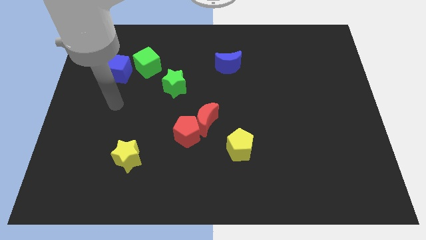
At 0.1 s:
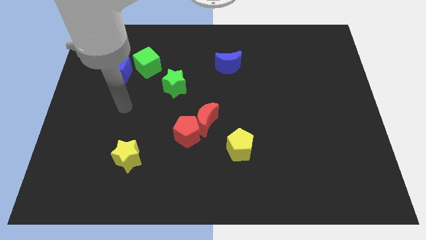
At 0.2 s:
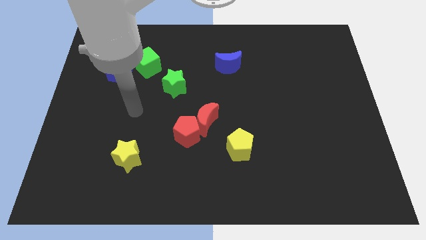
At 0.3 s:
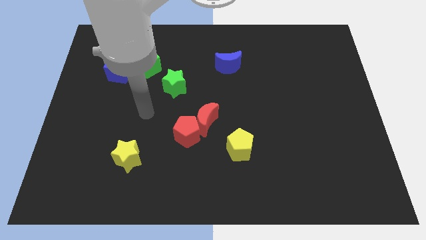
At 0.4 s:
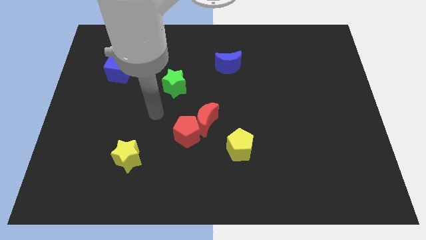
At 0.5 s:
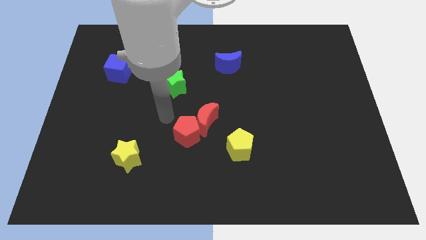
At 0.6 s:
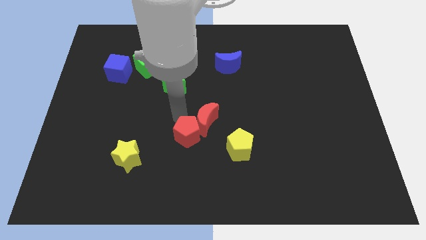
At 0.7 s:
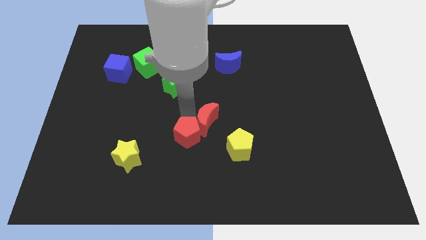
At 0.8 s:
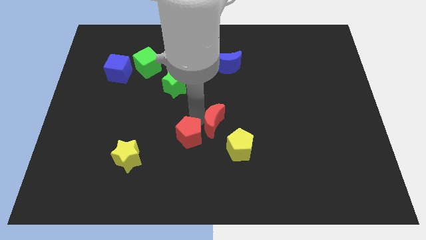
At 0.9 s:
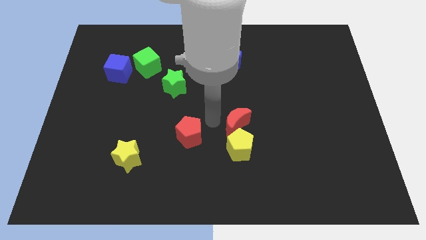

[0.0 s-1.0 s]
separate the red pentagon from the red moon

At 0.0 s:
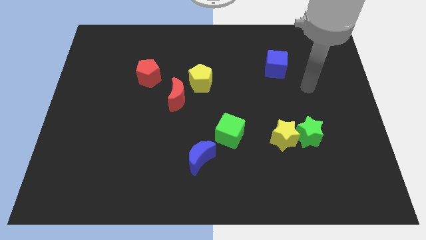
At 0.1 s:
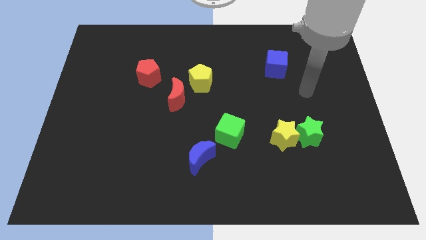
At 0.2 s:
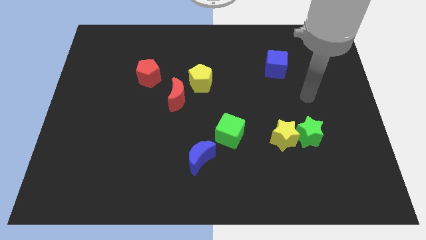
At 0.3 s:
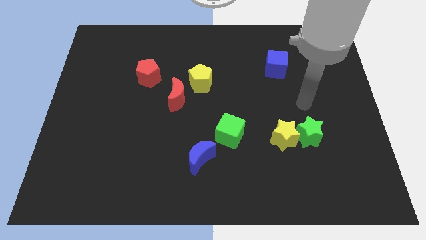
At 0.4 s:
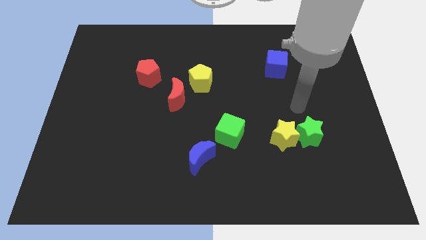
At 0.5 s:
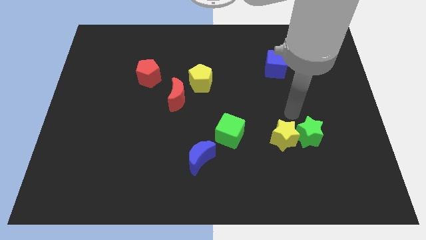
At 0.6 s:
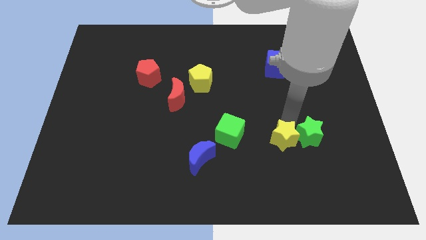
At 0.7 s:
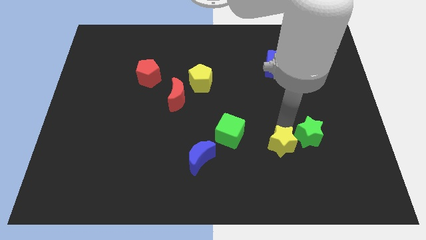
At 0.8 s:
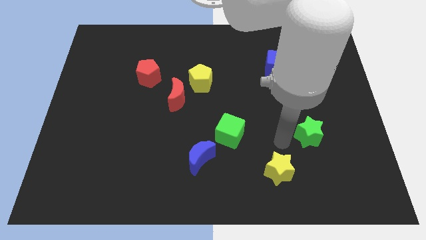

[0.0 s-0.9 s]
separate the green star from the yellow star

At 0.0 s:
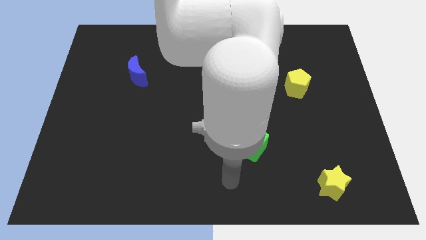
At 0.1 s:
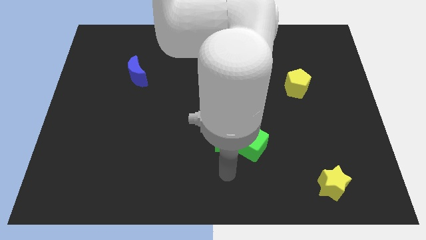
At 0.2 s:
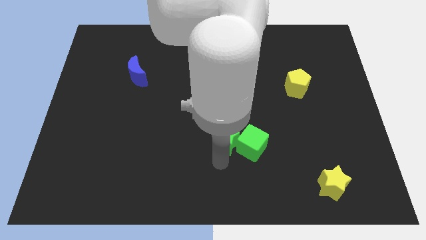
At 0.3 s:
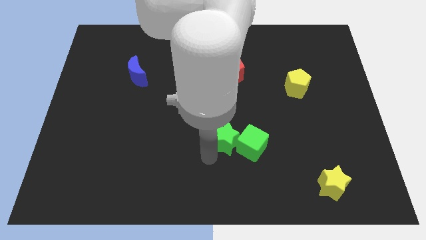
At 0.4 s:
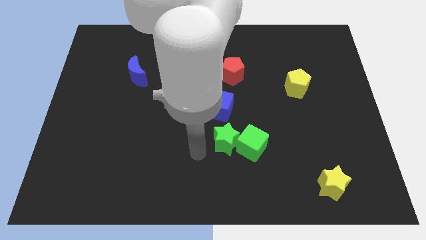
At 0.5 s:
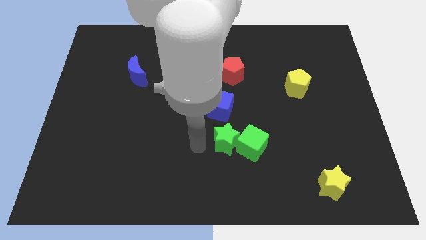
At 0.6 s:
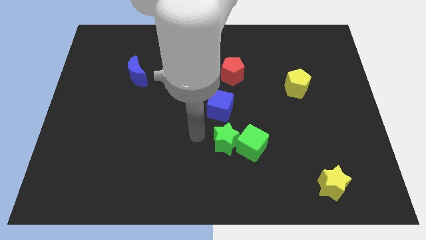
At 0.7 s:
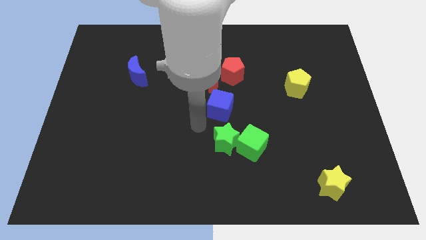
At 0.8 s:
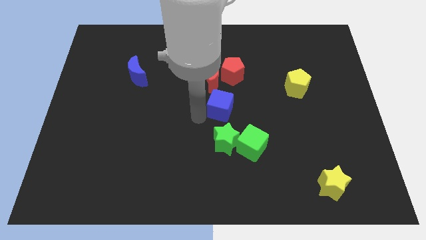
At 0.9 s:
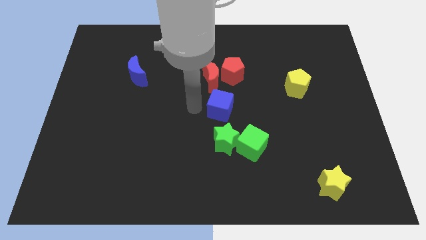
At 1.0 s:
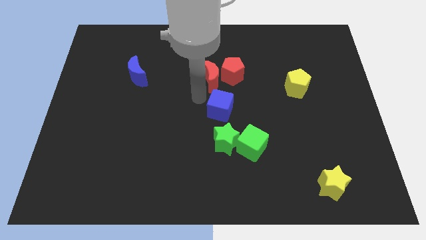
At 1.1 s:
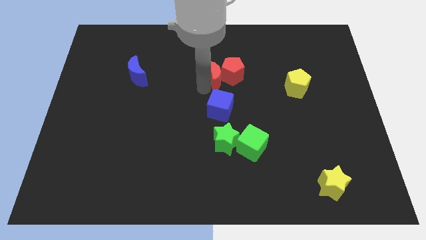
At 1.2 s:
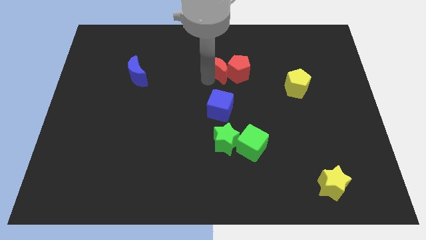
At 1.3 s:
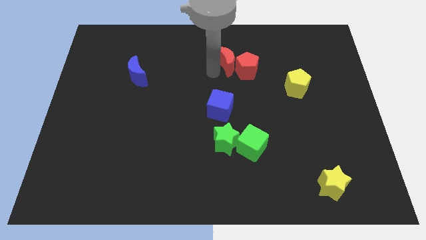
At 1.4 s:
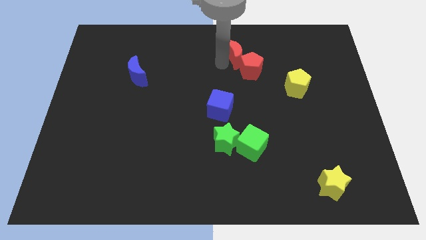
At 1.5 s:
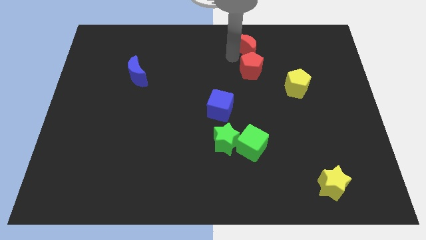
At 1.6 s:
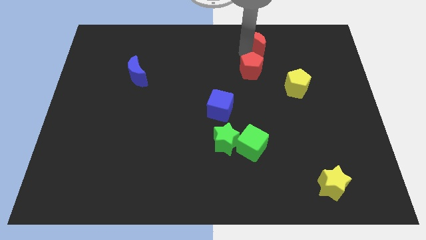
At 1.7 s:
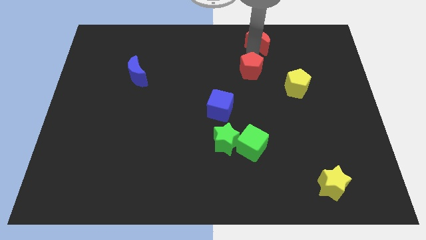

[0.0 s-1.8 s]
pull the red pentagon apart from the red moon

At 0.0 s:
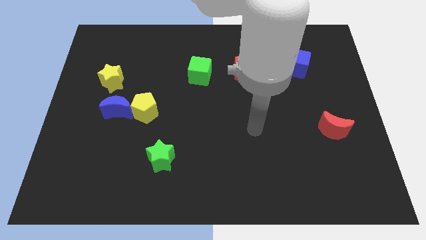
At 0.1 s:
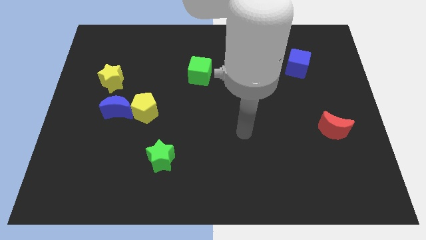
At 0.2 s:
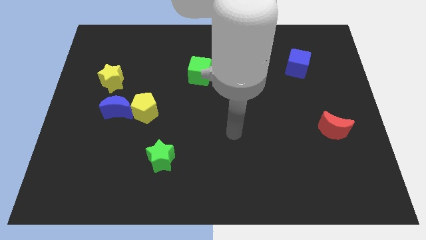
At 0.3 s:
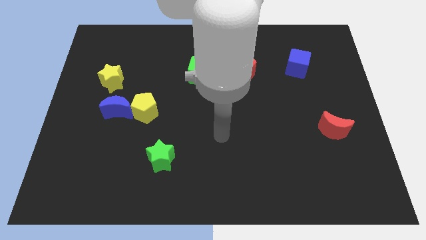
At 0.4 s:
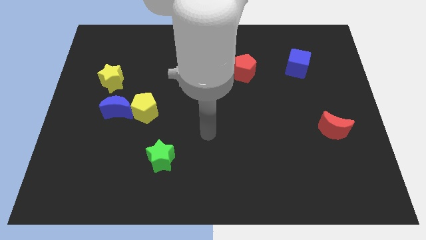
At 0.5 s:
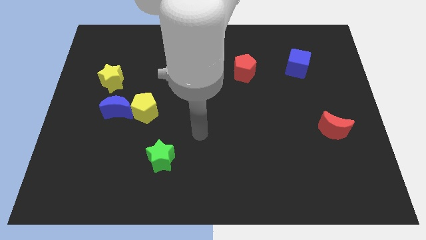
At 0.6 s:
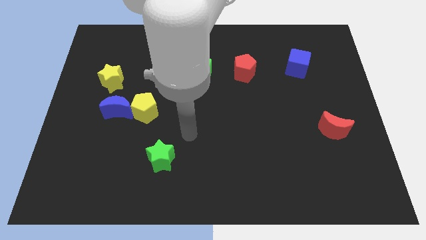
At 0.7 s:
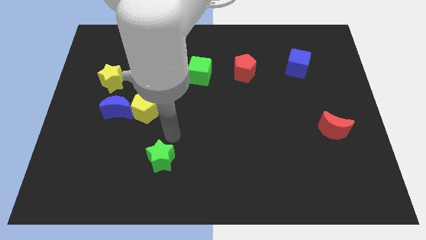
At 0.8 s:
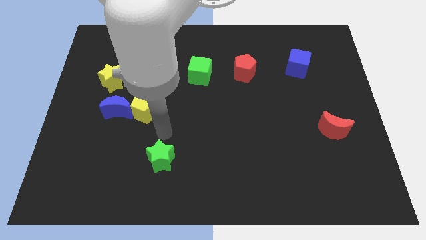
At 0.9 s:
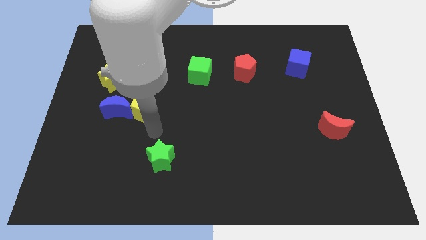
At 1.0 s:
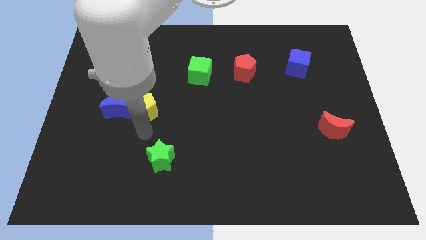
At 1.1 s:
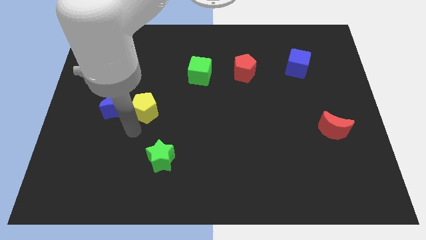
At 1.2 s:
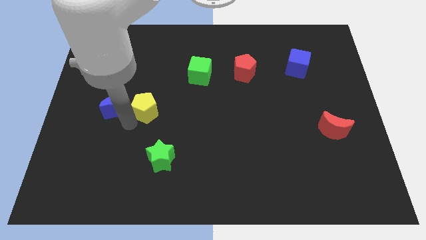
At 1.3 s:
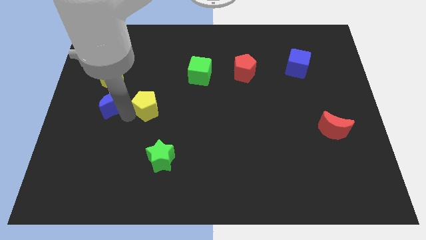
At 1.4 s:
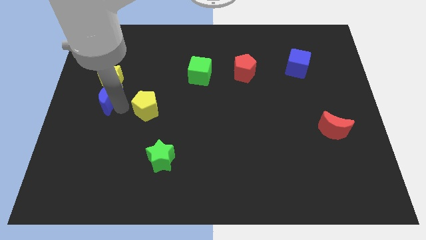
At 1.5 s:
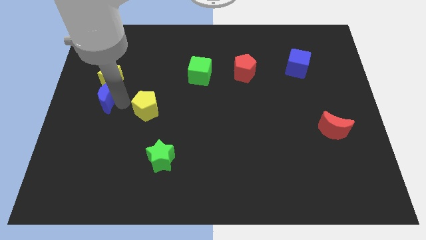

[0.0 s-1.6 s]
pull the yellow pentagon apart from the blue moon

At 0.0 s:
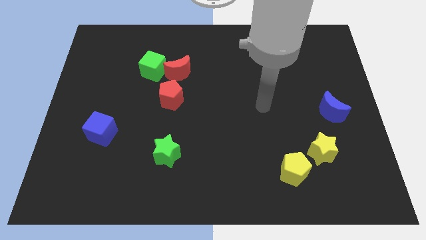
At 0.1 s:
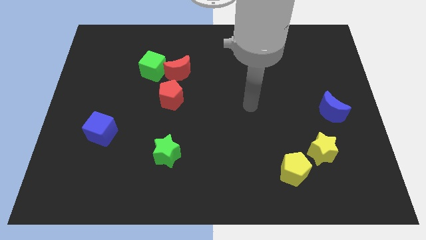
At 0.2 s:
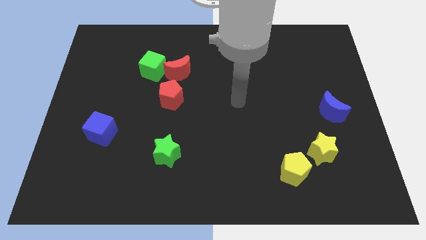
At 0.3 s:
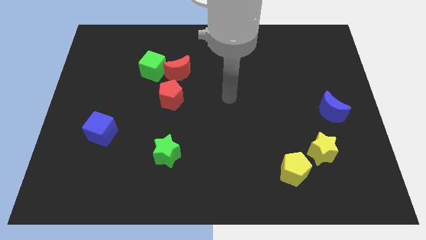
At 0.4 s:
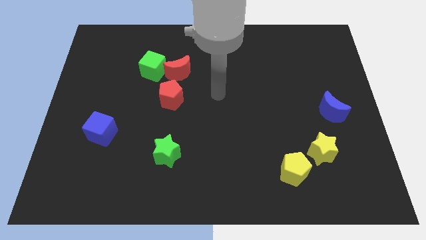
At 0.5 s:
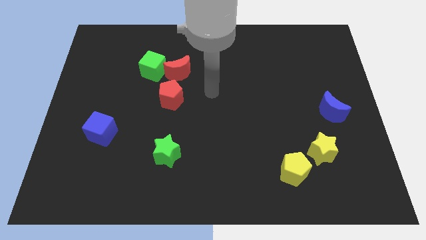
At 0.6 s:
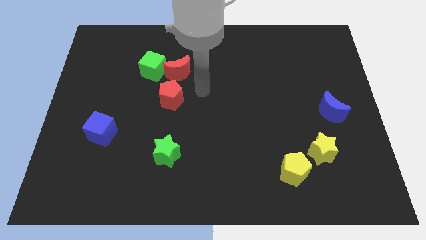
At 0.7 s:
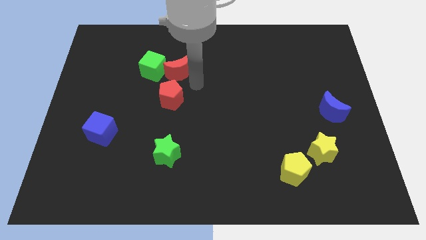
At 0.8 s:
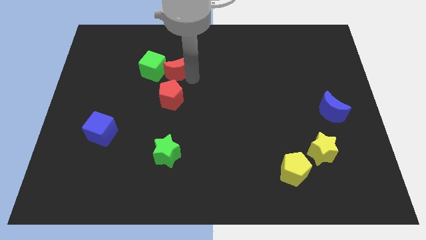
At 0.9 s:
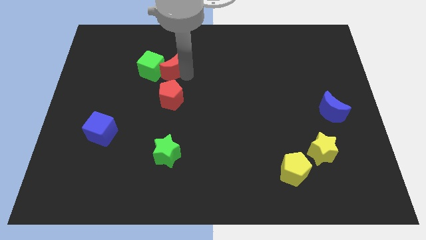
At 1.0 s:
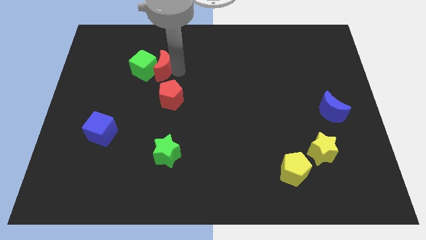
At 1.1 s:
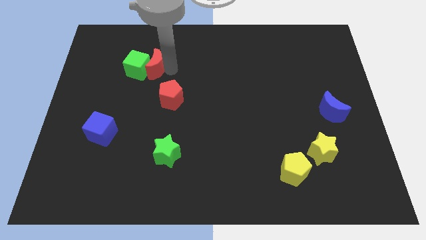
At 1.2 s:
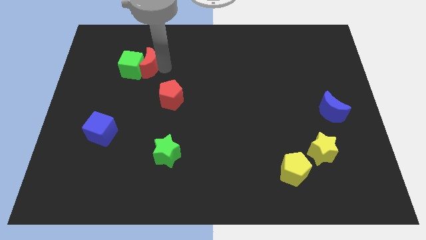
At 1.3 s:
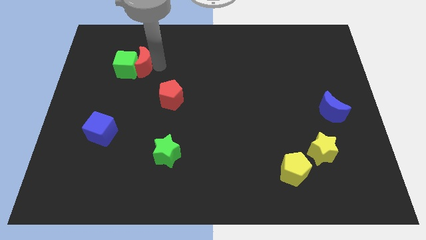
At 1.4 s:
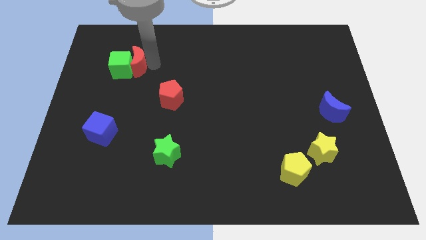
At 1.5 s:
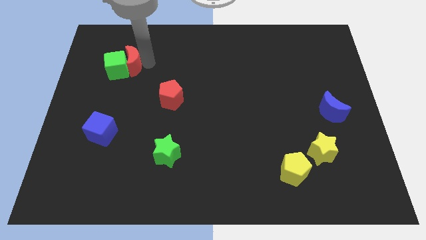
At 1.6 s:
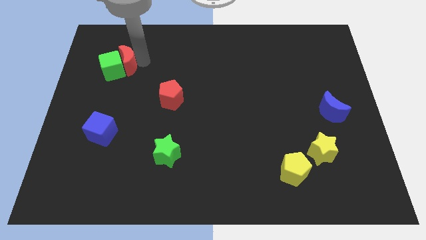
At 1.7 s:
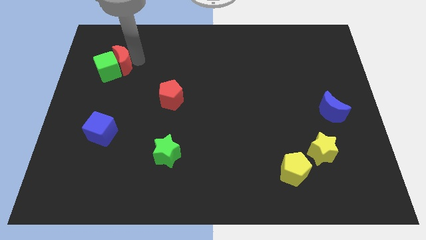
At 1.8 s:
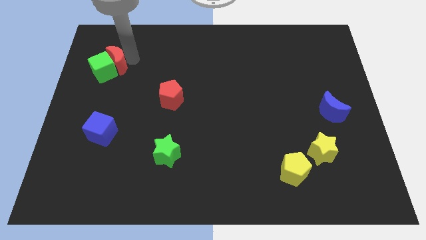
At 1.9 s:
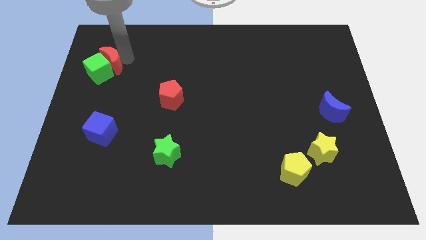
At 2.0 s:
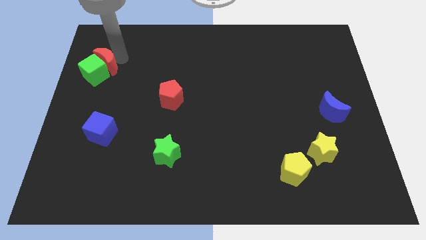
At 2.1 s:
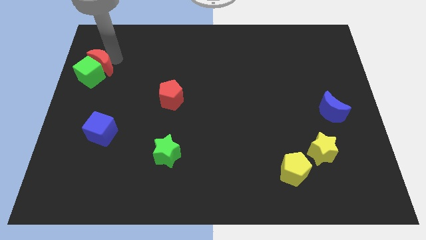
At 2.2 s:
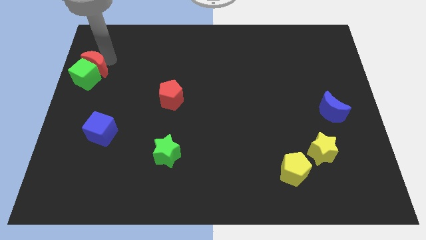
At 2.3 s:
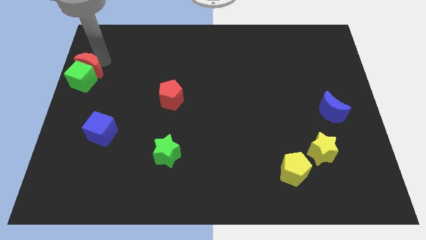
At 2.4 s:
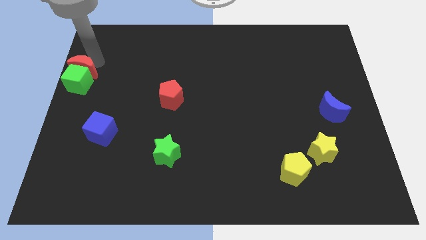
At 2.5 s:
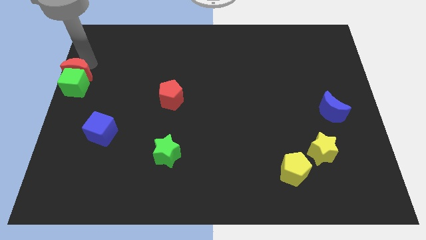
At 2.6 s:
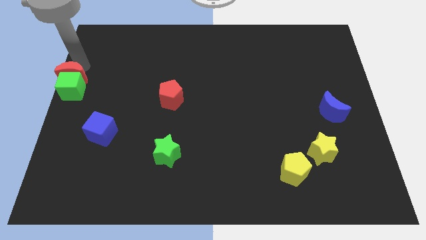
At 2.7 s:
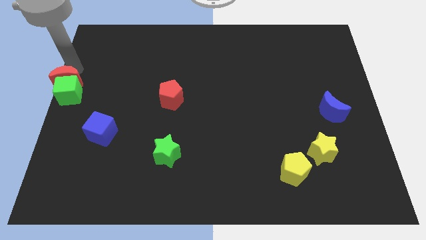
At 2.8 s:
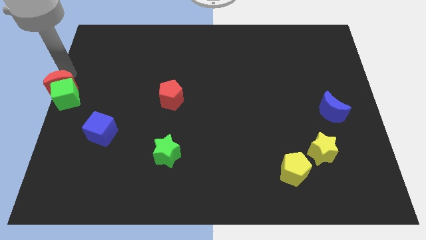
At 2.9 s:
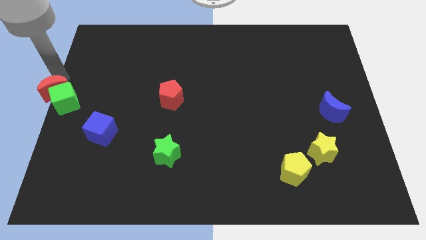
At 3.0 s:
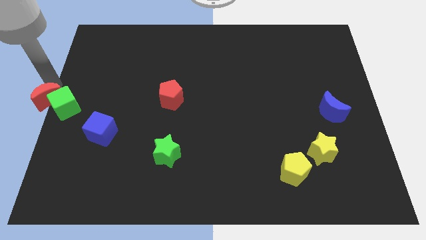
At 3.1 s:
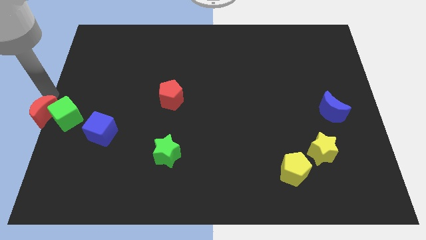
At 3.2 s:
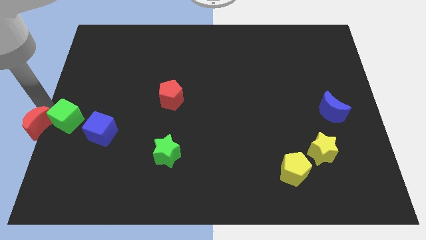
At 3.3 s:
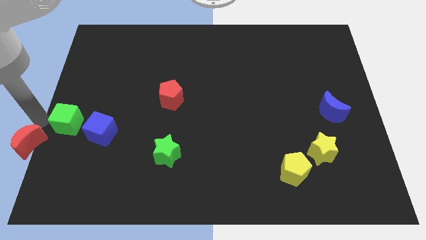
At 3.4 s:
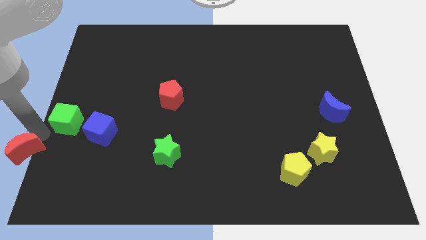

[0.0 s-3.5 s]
pull the green cube apart from the red moon

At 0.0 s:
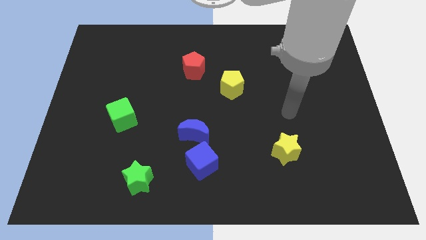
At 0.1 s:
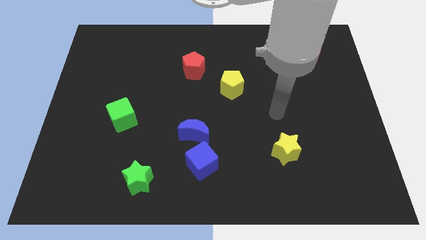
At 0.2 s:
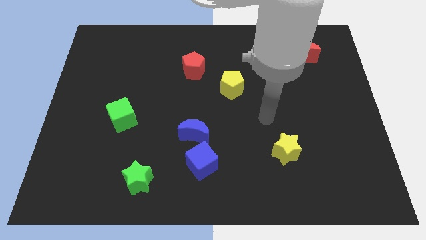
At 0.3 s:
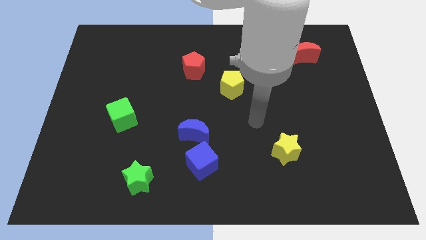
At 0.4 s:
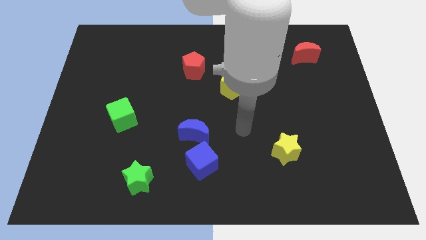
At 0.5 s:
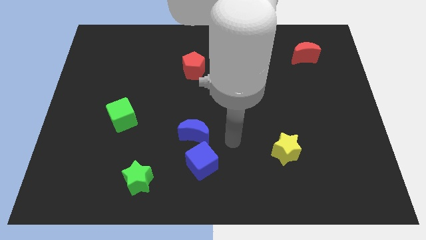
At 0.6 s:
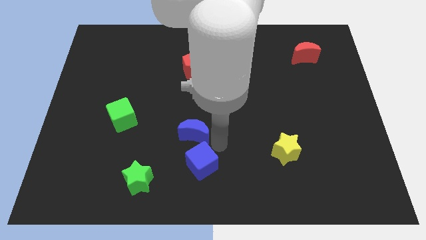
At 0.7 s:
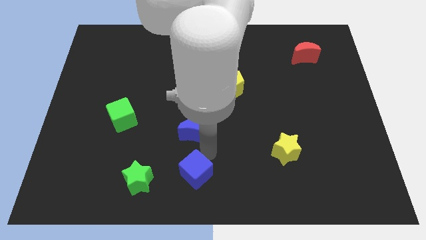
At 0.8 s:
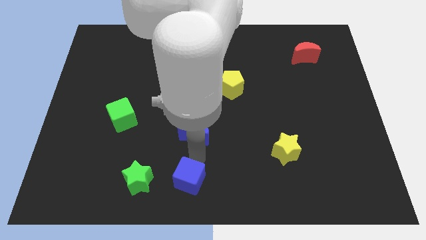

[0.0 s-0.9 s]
pull the blue moon apart from the blue cube
